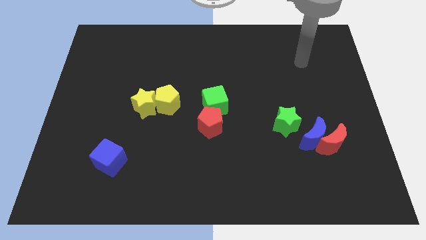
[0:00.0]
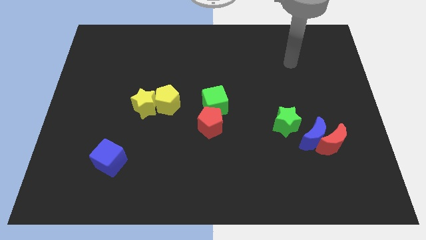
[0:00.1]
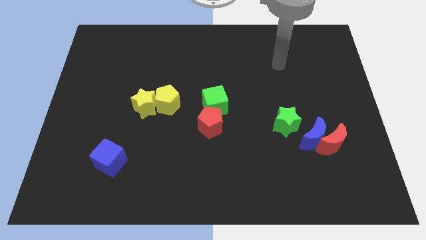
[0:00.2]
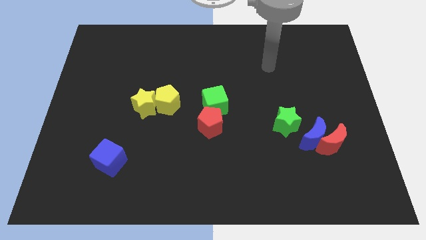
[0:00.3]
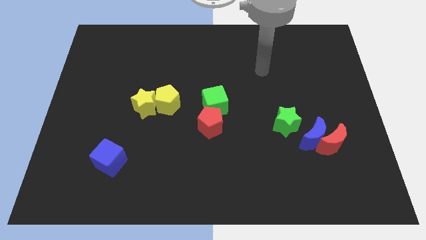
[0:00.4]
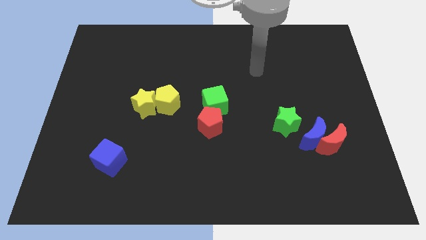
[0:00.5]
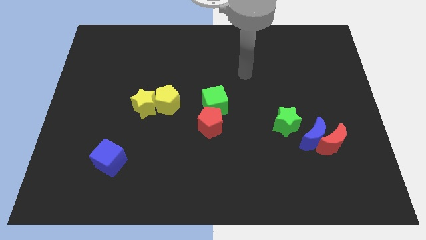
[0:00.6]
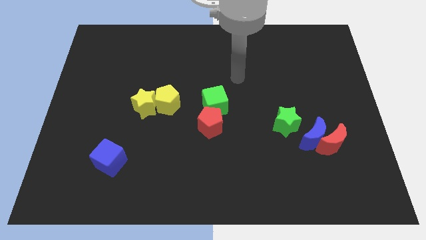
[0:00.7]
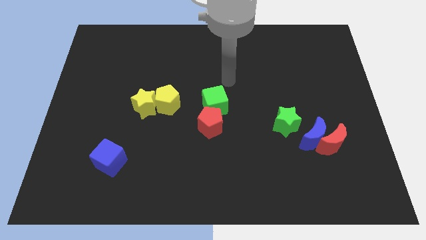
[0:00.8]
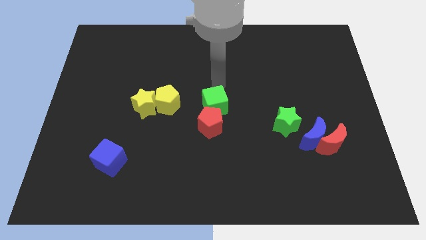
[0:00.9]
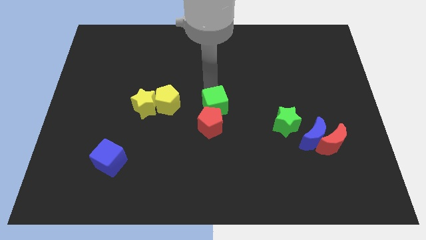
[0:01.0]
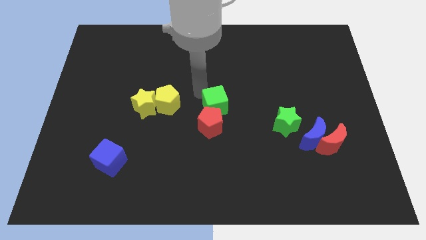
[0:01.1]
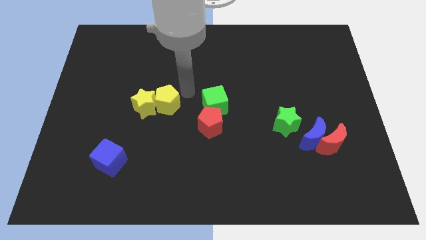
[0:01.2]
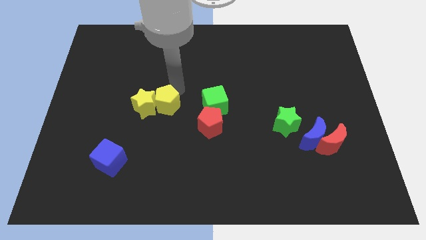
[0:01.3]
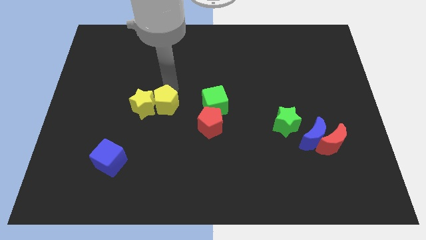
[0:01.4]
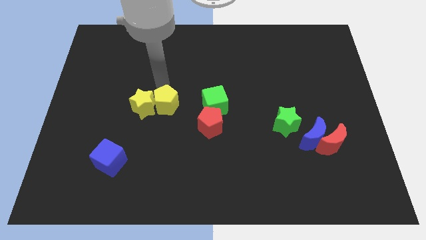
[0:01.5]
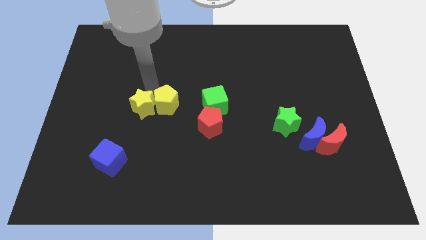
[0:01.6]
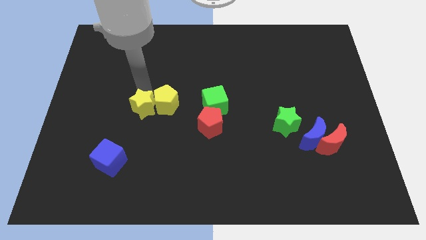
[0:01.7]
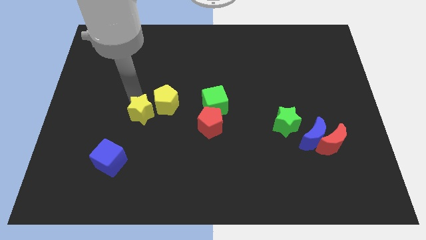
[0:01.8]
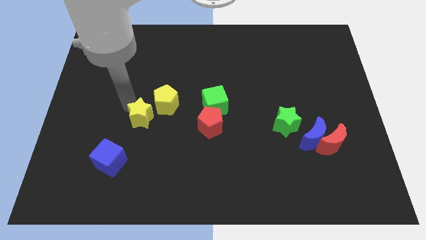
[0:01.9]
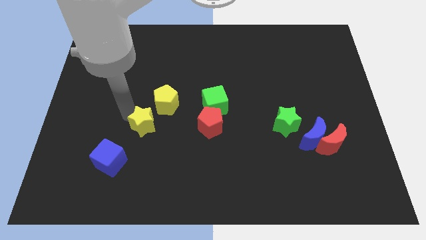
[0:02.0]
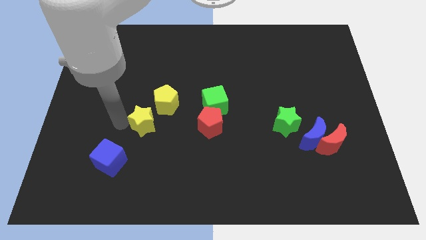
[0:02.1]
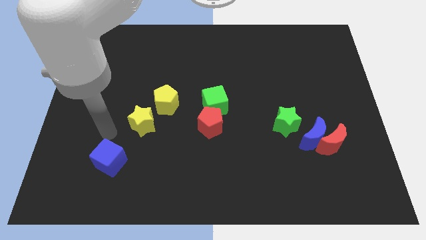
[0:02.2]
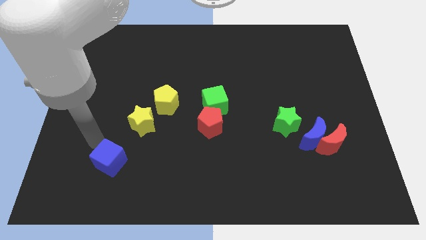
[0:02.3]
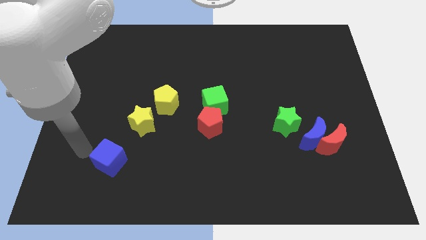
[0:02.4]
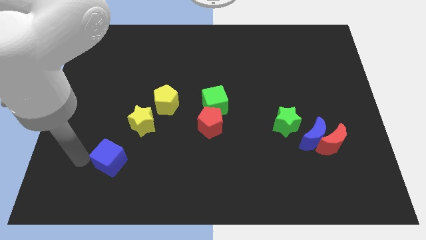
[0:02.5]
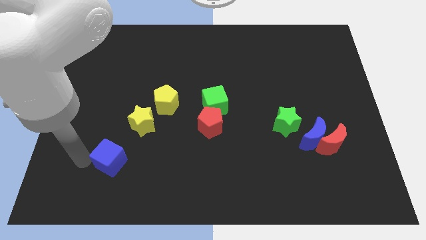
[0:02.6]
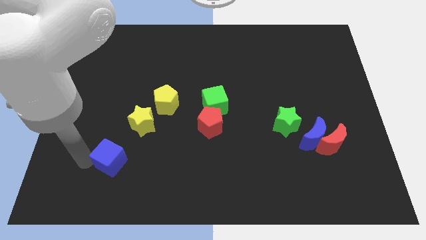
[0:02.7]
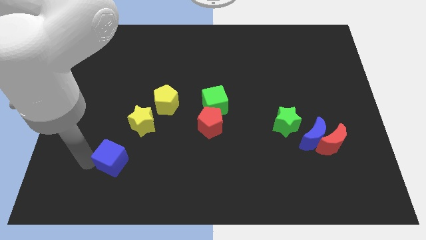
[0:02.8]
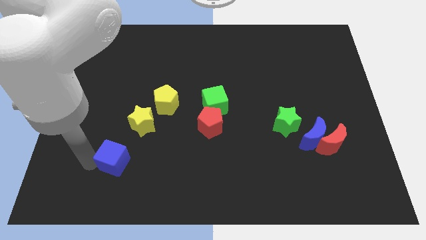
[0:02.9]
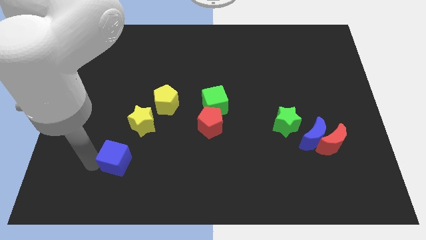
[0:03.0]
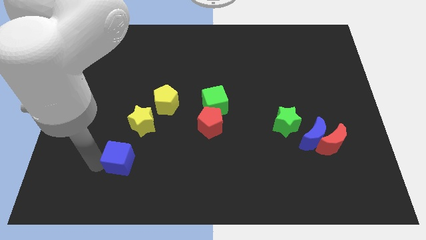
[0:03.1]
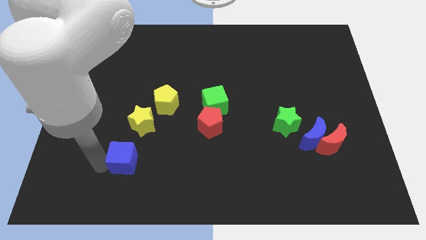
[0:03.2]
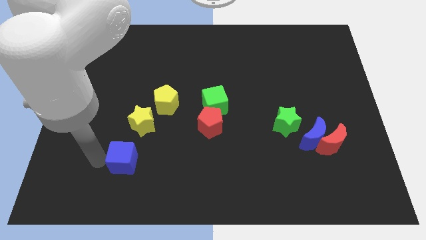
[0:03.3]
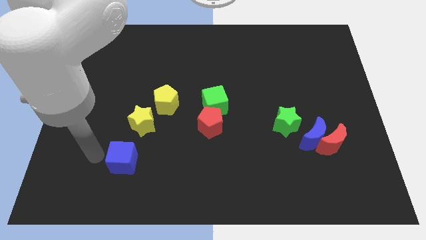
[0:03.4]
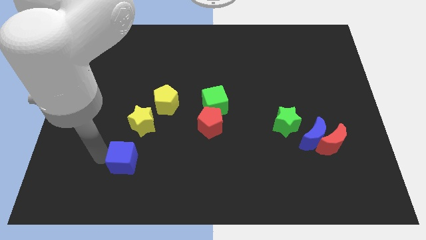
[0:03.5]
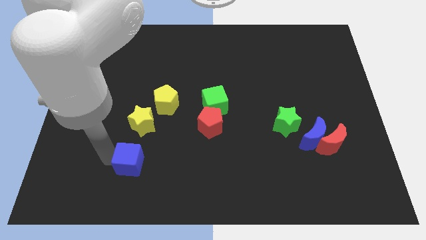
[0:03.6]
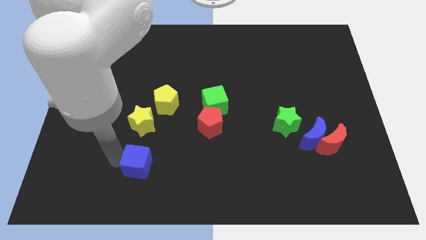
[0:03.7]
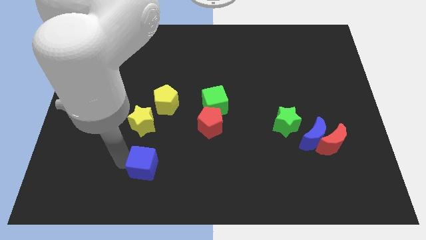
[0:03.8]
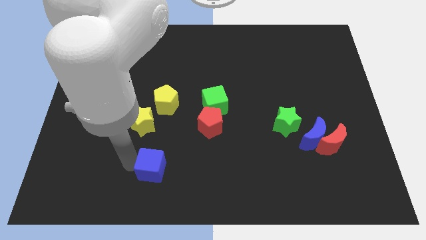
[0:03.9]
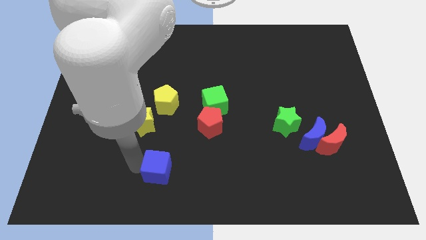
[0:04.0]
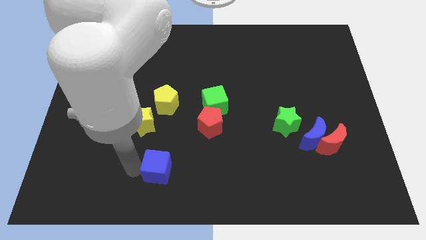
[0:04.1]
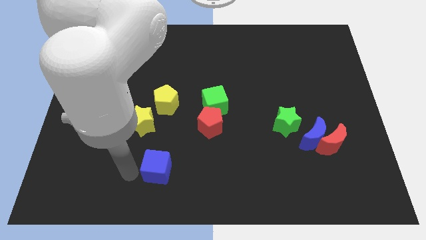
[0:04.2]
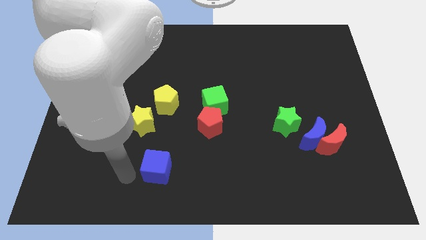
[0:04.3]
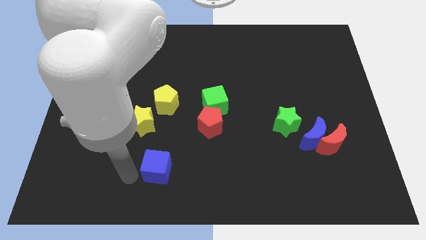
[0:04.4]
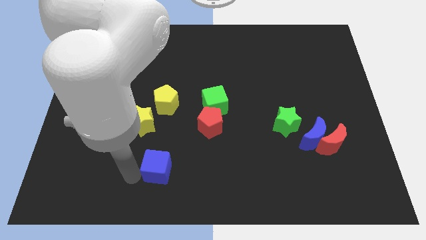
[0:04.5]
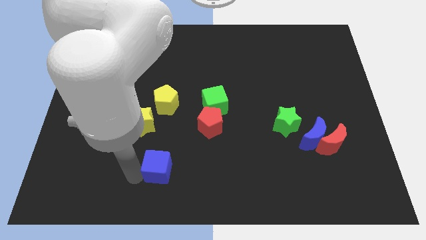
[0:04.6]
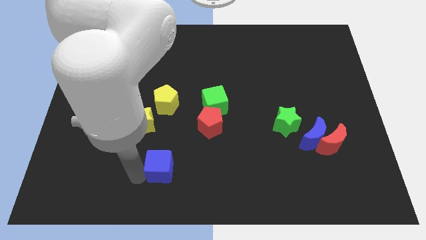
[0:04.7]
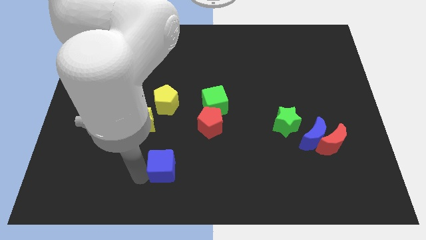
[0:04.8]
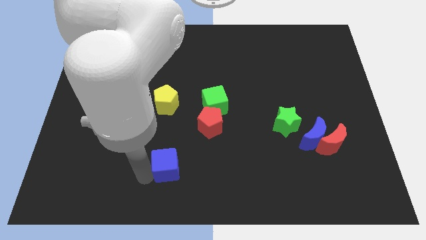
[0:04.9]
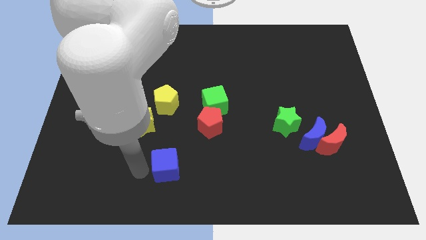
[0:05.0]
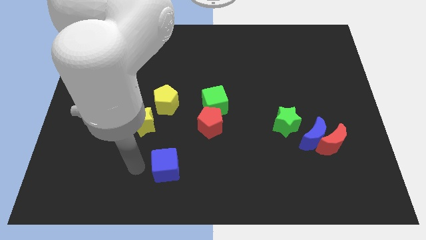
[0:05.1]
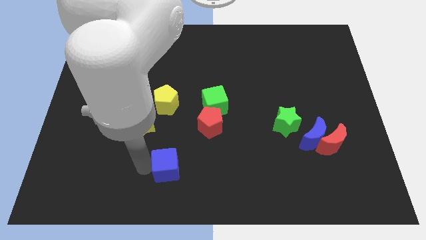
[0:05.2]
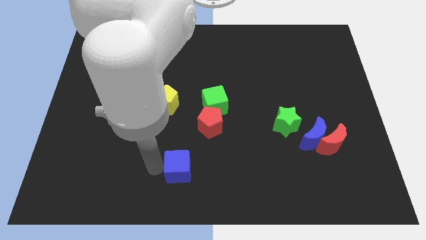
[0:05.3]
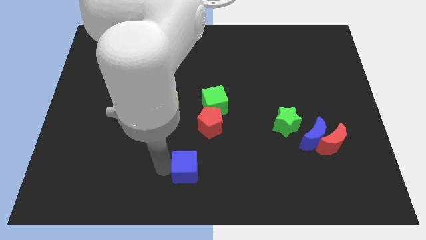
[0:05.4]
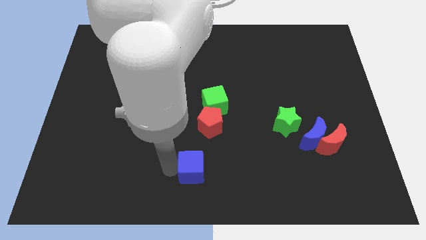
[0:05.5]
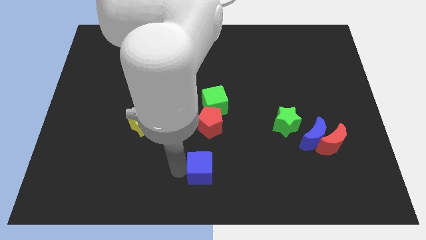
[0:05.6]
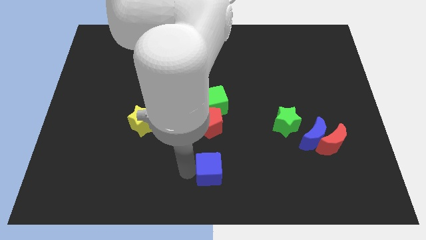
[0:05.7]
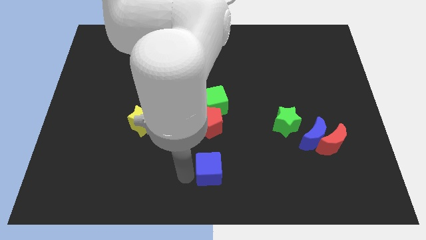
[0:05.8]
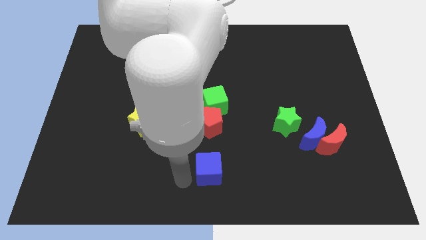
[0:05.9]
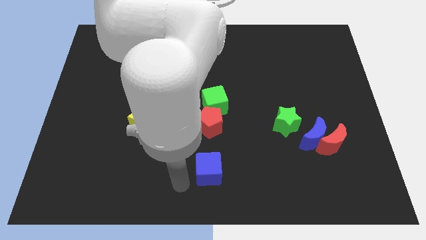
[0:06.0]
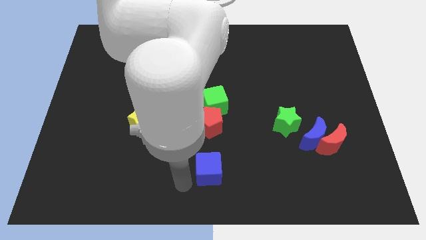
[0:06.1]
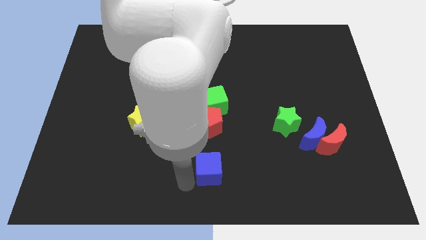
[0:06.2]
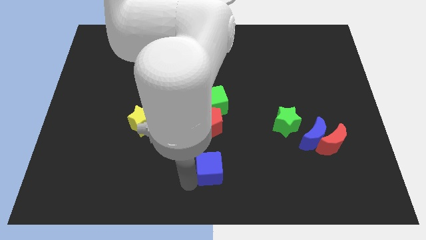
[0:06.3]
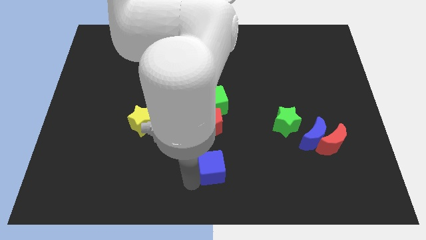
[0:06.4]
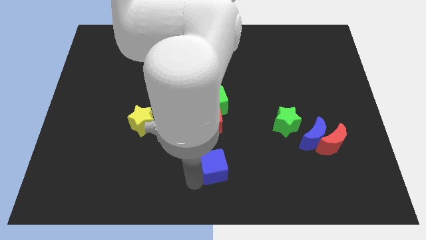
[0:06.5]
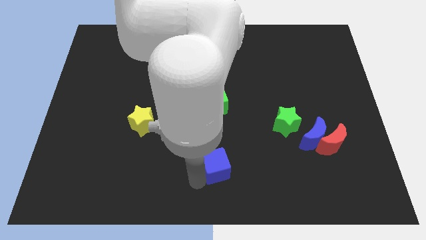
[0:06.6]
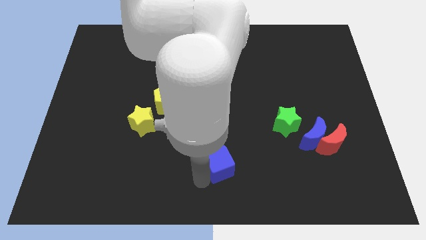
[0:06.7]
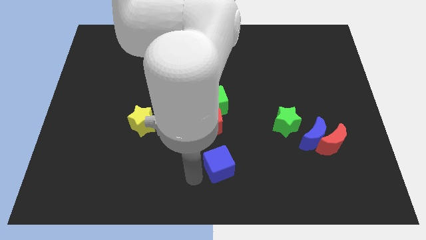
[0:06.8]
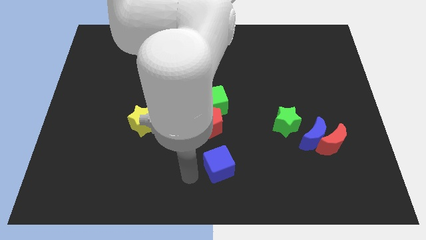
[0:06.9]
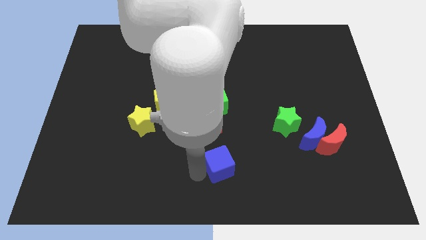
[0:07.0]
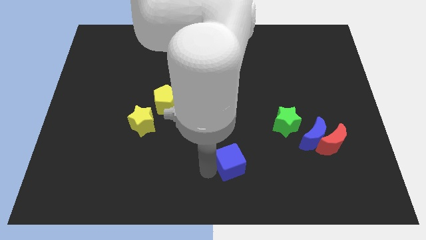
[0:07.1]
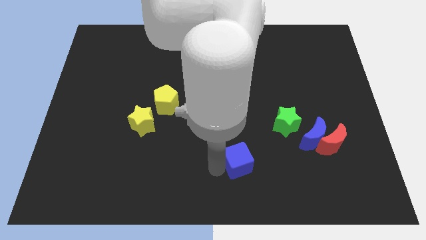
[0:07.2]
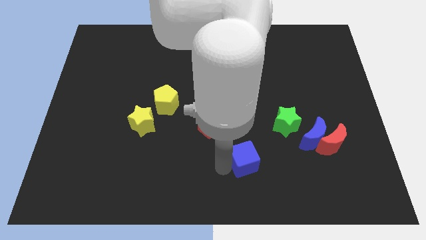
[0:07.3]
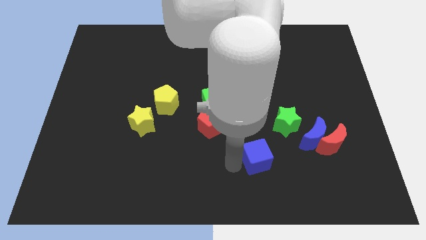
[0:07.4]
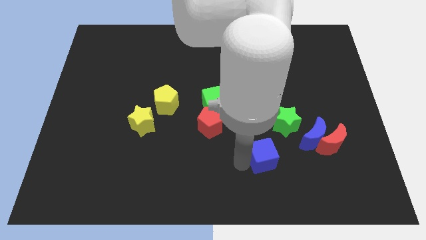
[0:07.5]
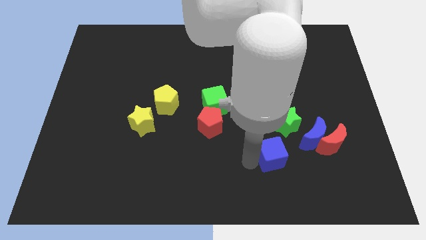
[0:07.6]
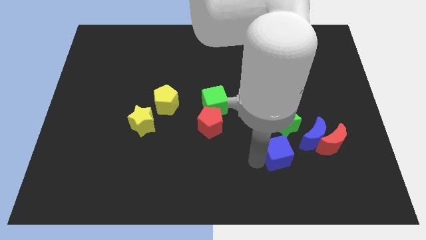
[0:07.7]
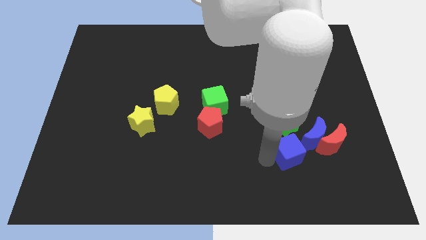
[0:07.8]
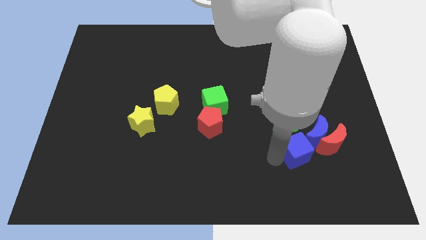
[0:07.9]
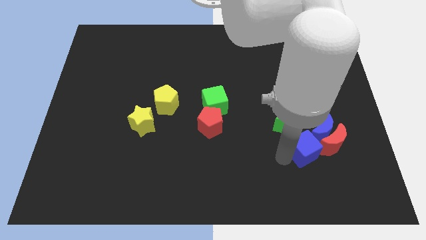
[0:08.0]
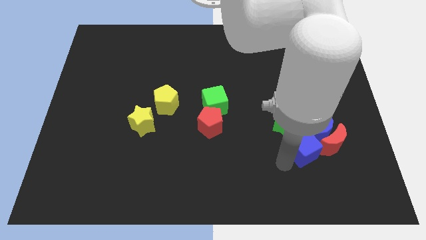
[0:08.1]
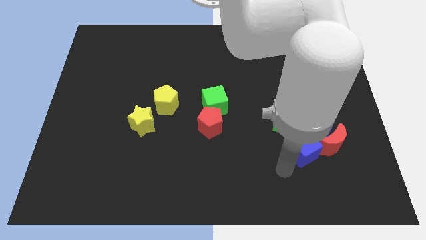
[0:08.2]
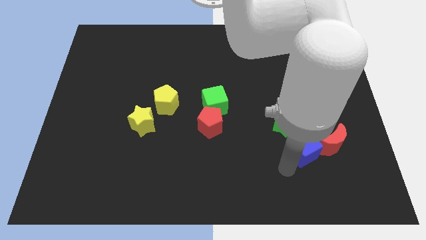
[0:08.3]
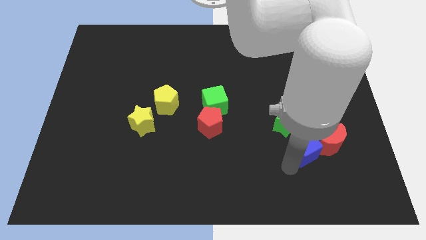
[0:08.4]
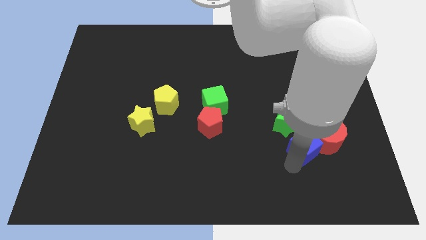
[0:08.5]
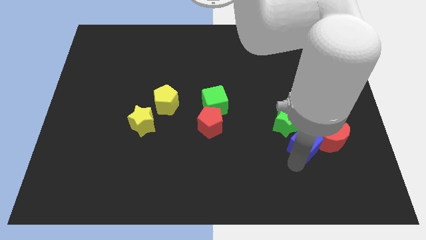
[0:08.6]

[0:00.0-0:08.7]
slide the blue cube towards the blue moon
